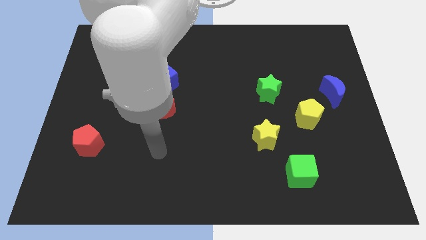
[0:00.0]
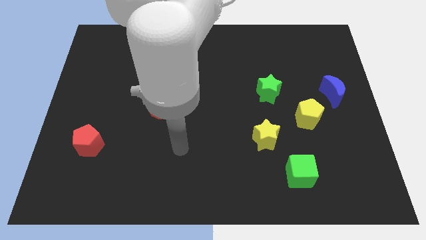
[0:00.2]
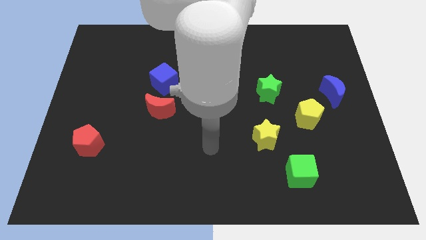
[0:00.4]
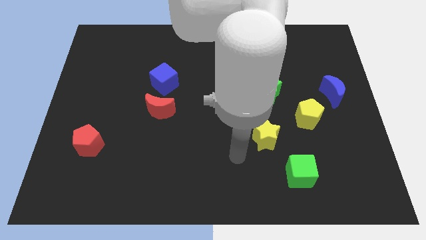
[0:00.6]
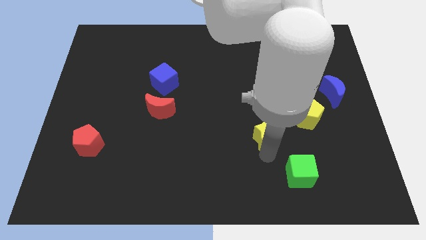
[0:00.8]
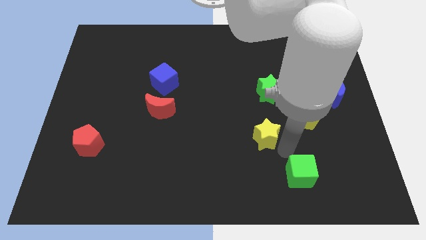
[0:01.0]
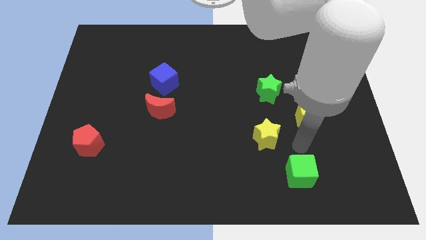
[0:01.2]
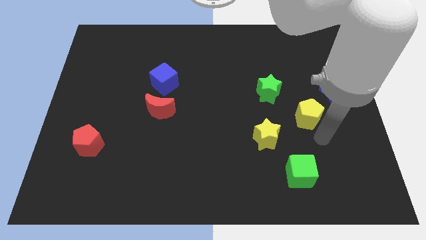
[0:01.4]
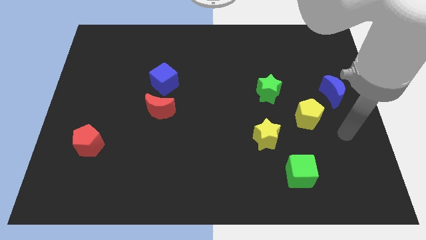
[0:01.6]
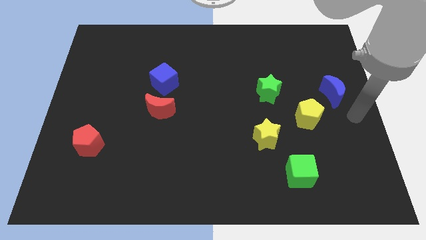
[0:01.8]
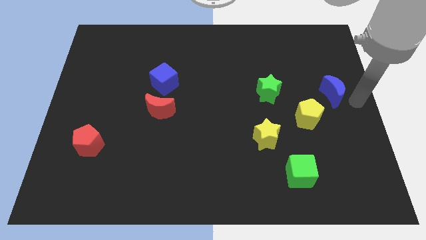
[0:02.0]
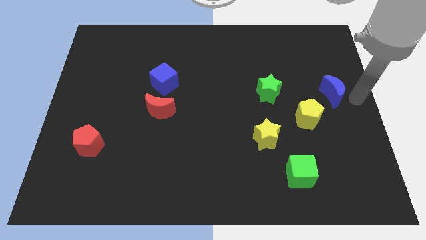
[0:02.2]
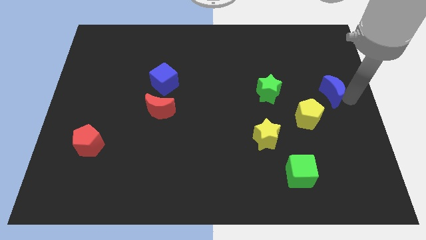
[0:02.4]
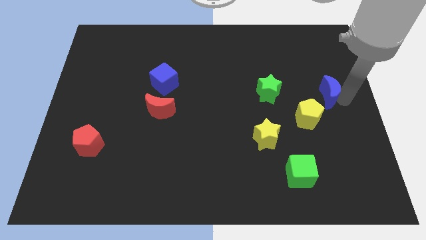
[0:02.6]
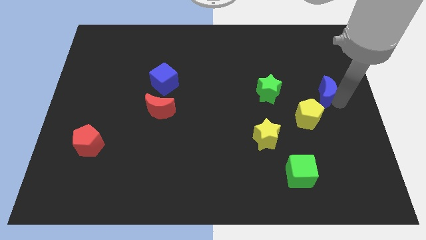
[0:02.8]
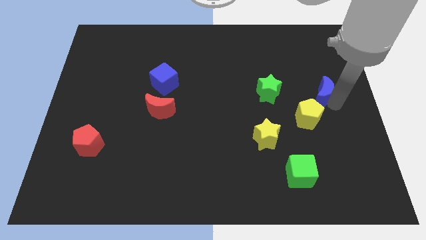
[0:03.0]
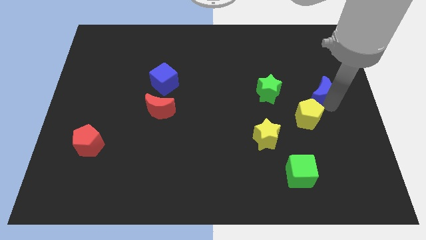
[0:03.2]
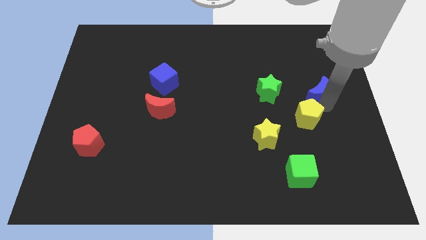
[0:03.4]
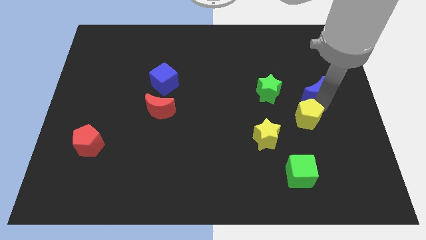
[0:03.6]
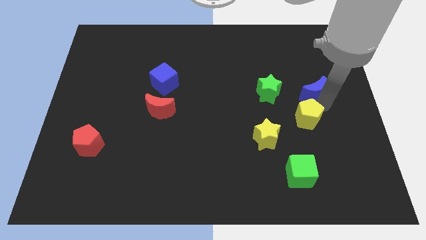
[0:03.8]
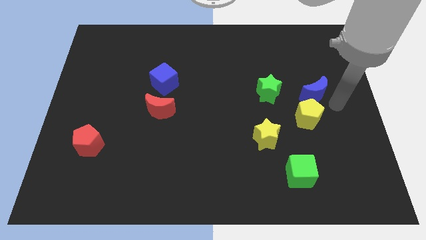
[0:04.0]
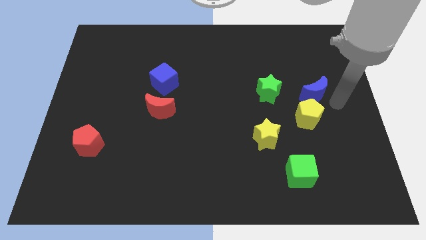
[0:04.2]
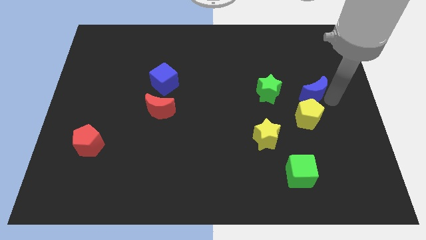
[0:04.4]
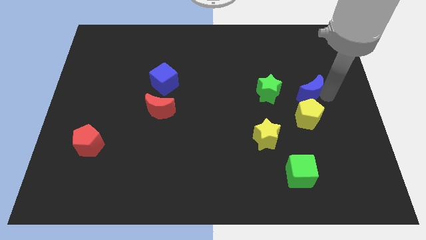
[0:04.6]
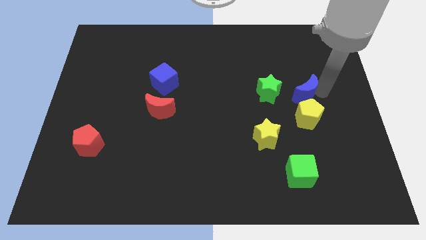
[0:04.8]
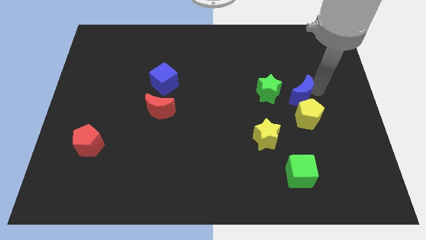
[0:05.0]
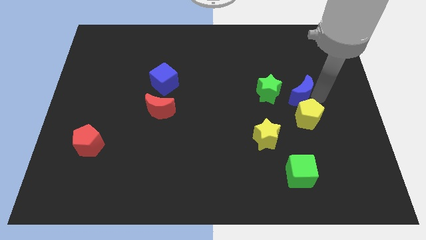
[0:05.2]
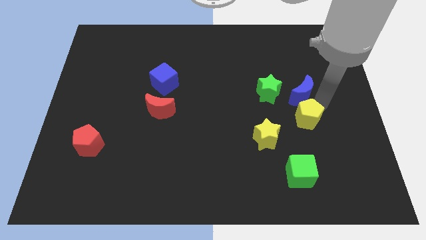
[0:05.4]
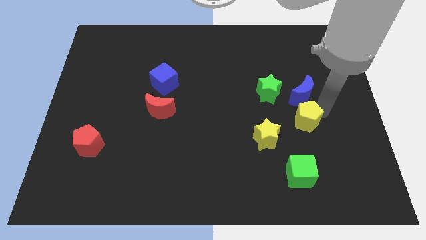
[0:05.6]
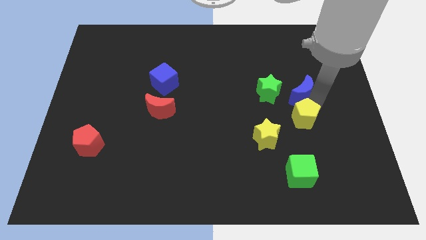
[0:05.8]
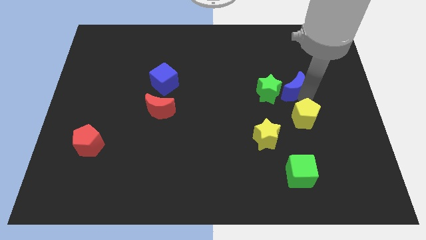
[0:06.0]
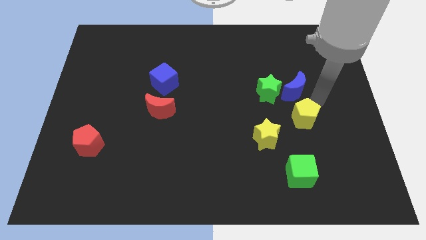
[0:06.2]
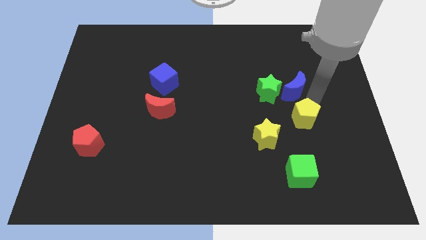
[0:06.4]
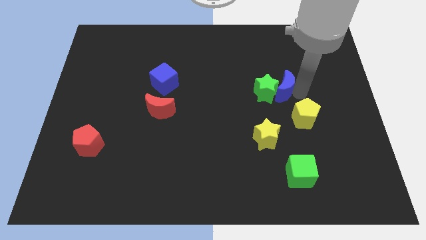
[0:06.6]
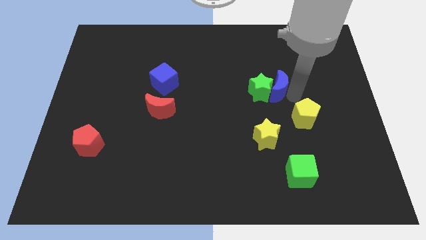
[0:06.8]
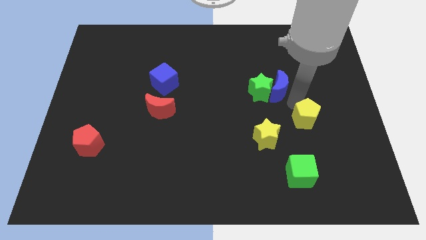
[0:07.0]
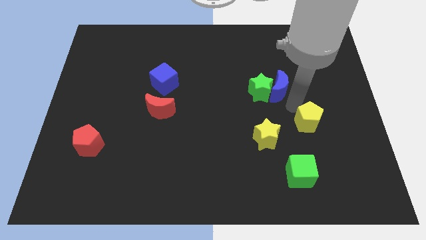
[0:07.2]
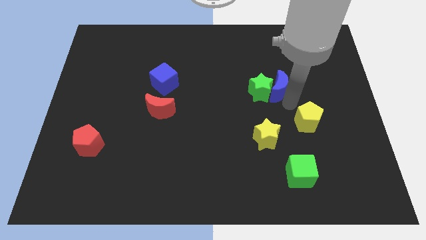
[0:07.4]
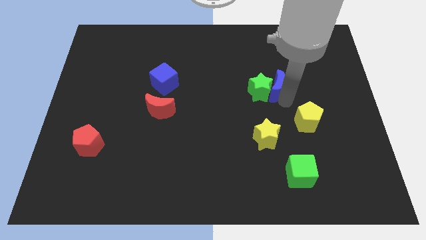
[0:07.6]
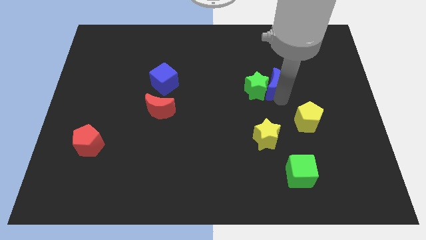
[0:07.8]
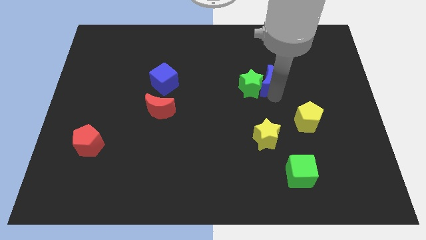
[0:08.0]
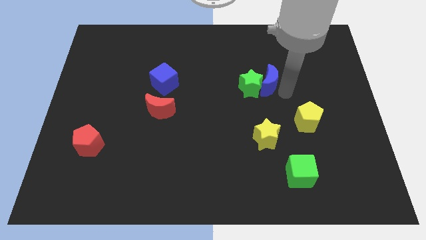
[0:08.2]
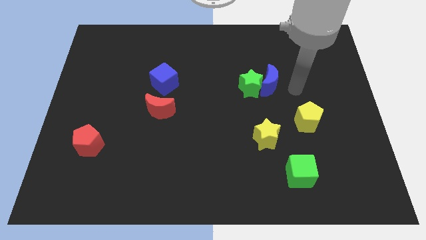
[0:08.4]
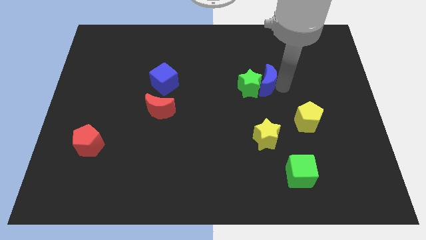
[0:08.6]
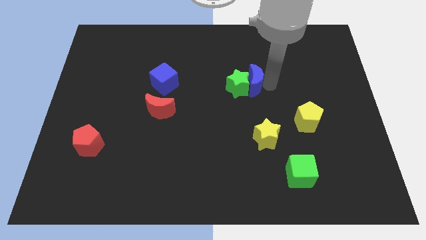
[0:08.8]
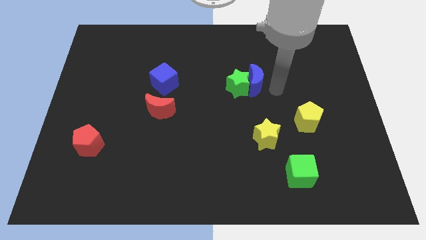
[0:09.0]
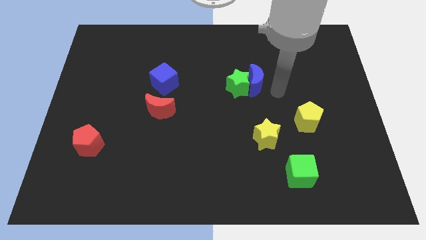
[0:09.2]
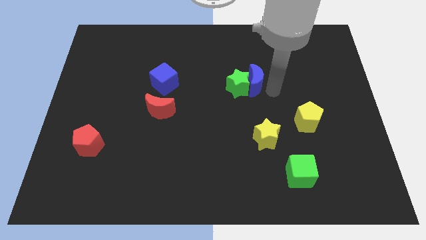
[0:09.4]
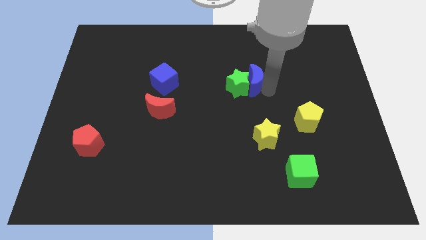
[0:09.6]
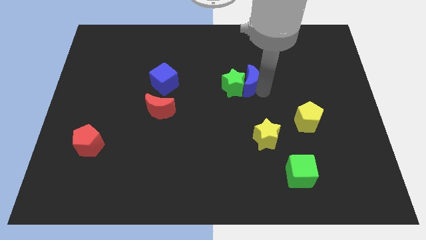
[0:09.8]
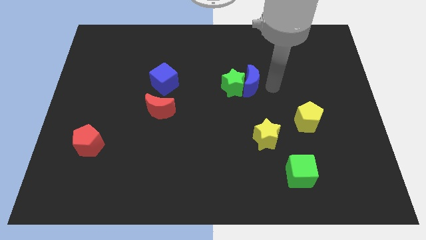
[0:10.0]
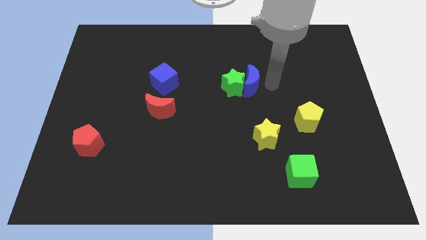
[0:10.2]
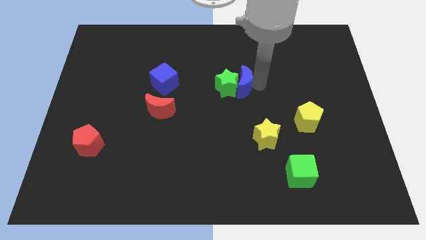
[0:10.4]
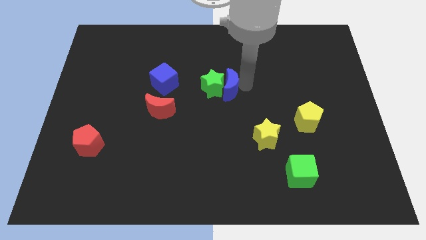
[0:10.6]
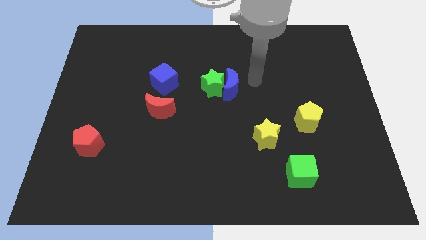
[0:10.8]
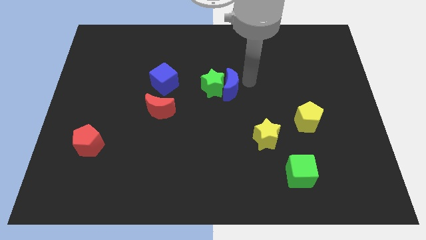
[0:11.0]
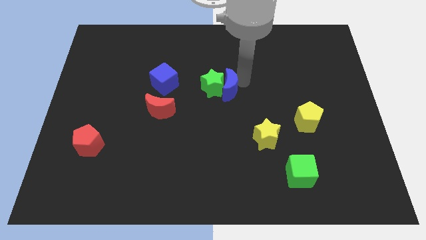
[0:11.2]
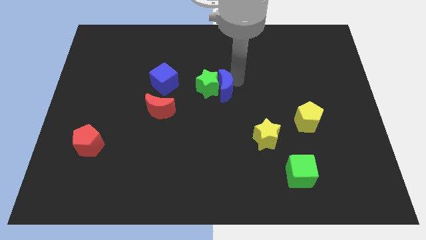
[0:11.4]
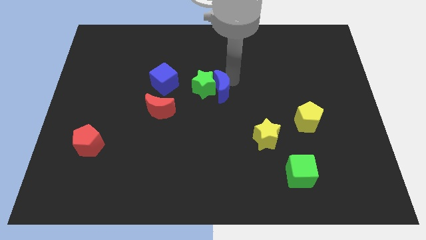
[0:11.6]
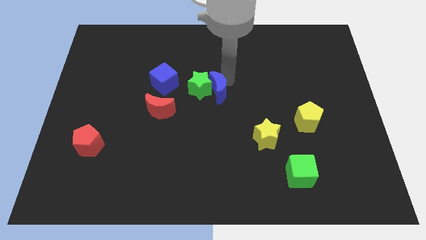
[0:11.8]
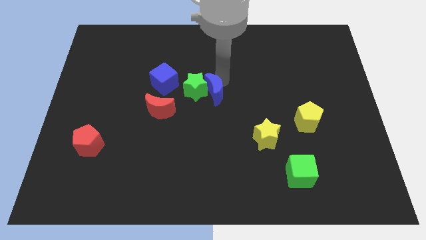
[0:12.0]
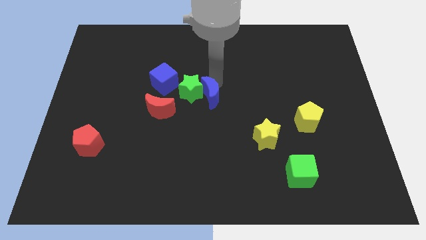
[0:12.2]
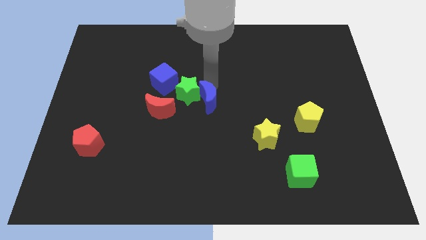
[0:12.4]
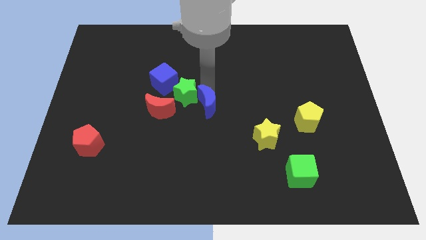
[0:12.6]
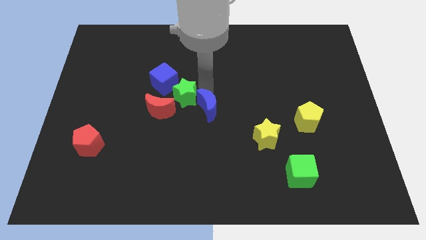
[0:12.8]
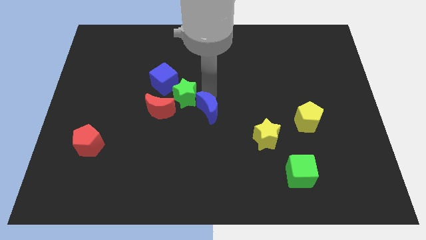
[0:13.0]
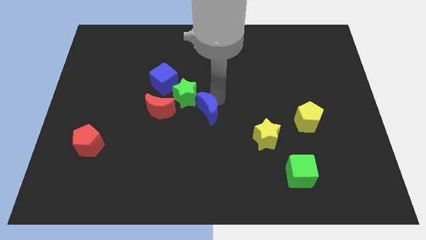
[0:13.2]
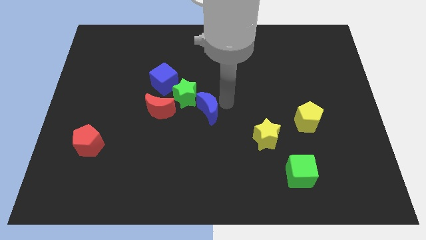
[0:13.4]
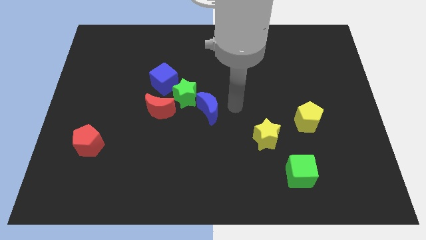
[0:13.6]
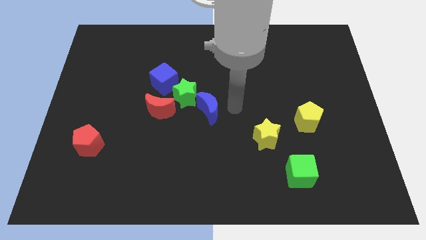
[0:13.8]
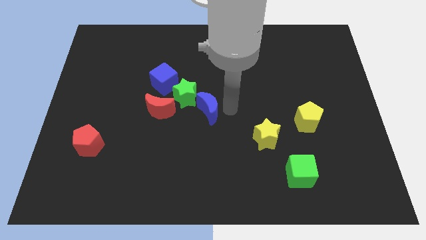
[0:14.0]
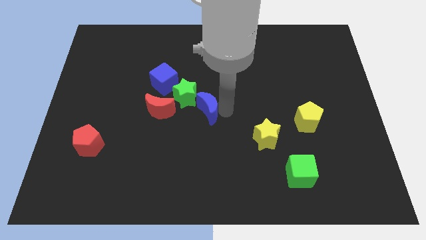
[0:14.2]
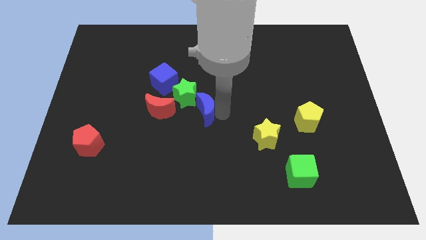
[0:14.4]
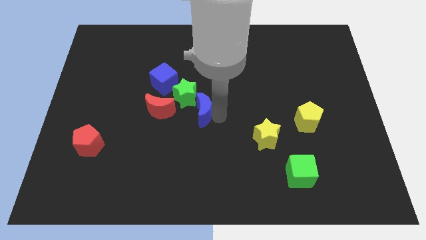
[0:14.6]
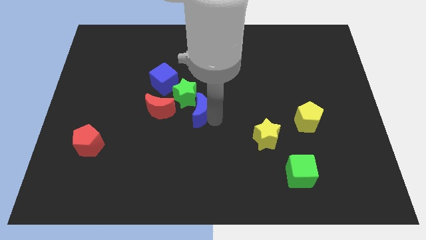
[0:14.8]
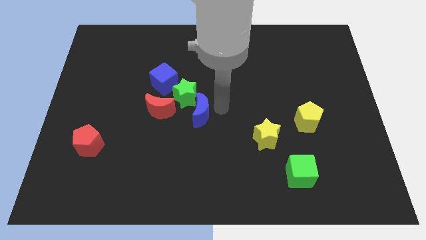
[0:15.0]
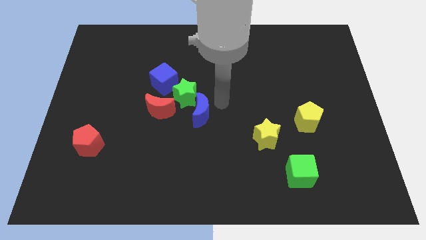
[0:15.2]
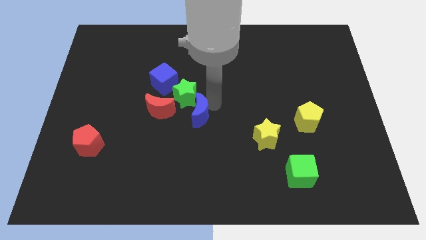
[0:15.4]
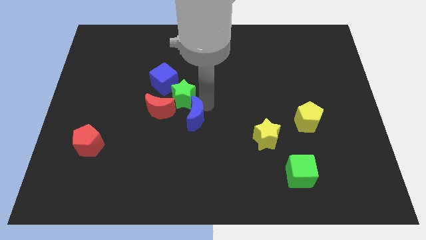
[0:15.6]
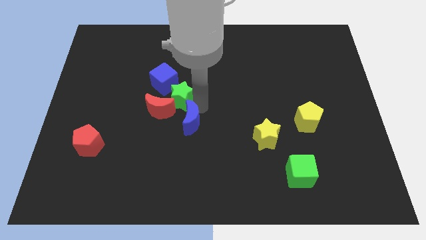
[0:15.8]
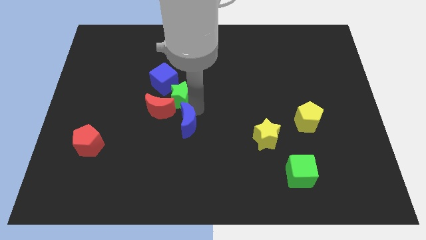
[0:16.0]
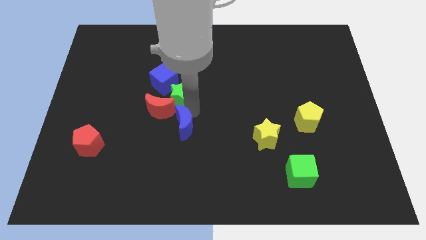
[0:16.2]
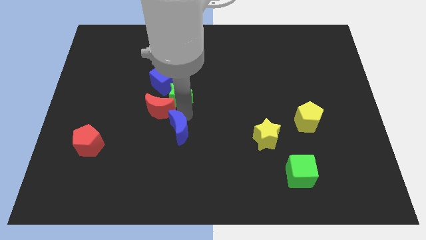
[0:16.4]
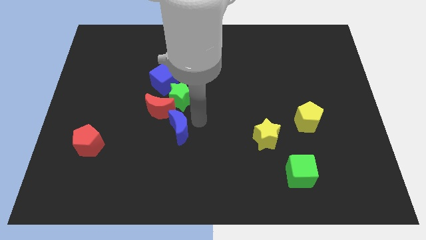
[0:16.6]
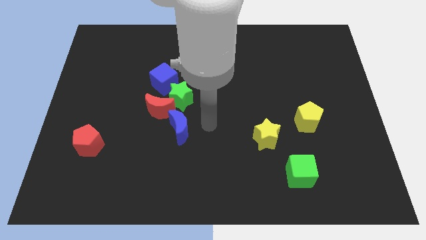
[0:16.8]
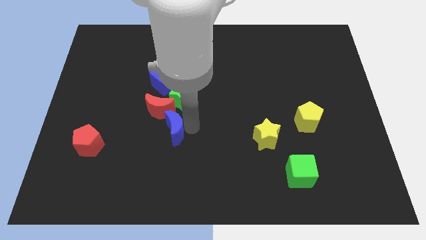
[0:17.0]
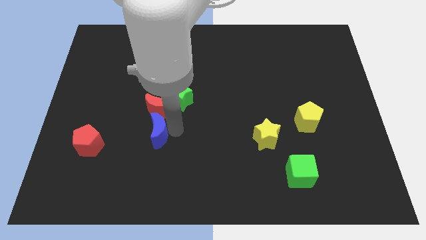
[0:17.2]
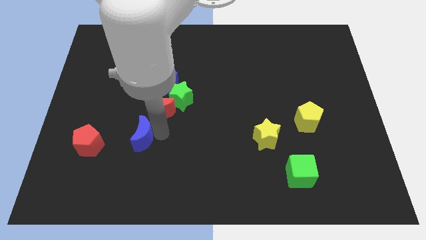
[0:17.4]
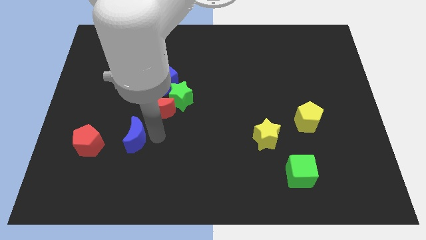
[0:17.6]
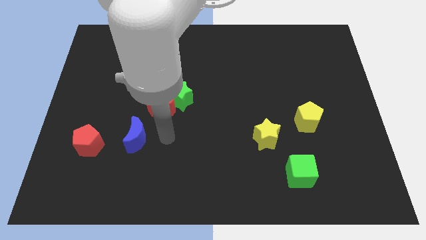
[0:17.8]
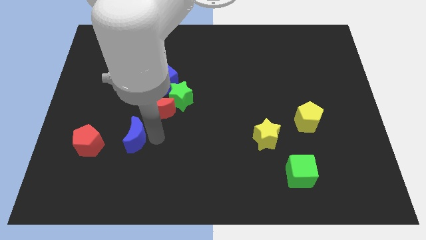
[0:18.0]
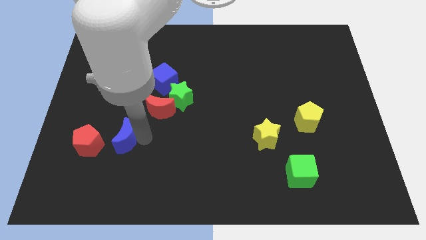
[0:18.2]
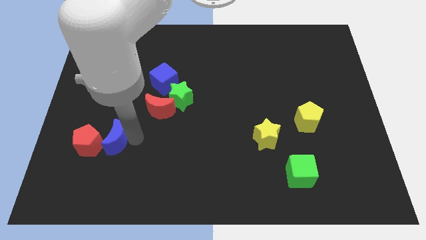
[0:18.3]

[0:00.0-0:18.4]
slide the blue moon close to the red pentagon
